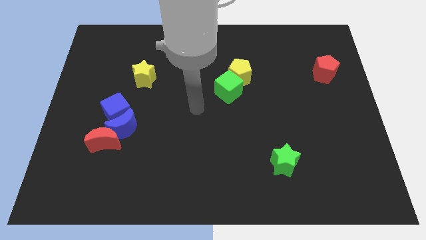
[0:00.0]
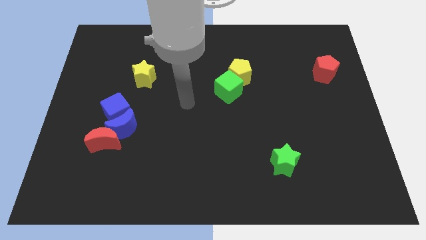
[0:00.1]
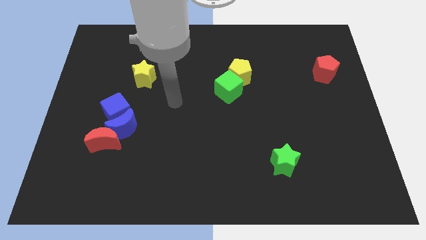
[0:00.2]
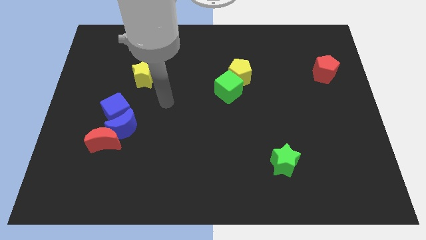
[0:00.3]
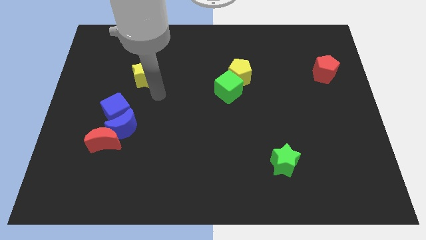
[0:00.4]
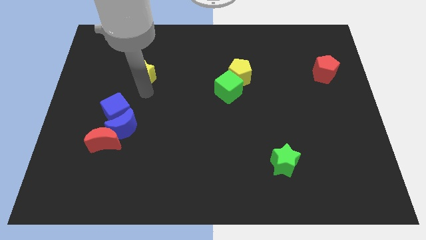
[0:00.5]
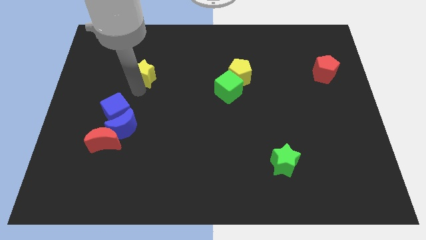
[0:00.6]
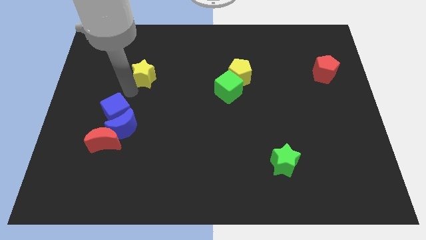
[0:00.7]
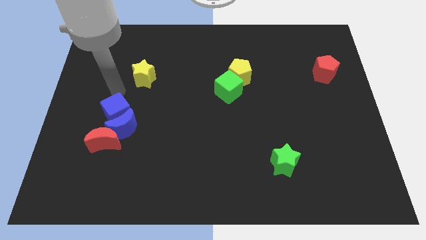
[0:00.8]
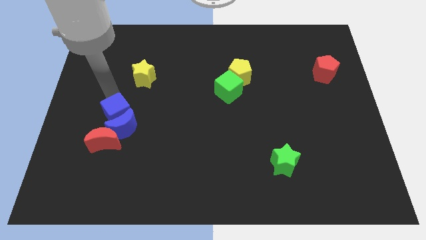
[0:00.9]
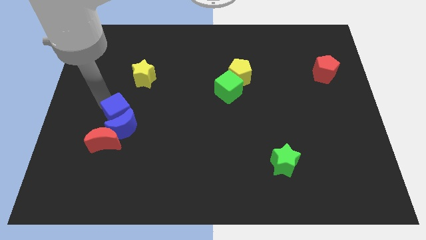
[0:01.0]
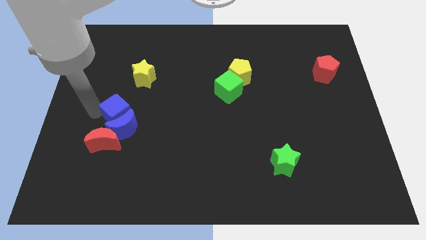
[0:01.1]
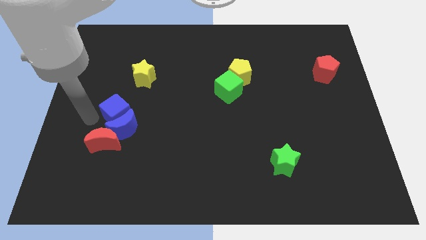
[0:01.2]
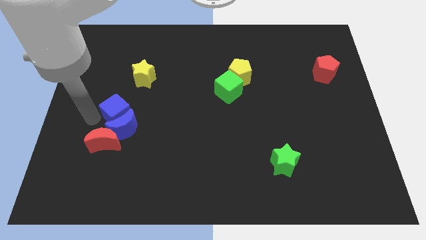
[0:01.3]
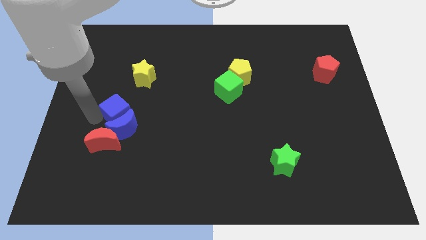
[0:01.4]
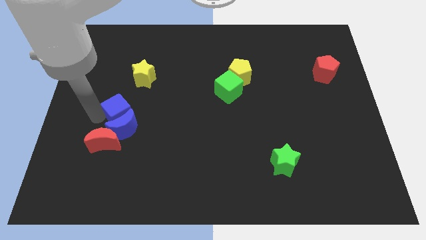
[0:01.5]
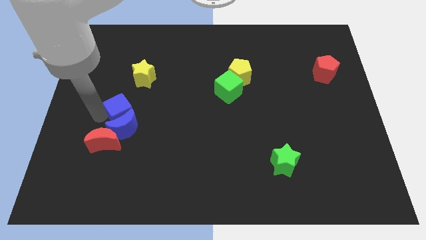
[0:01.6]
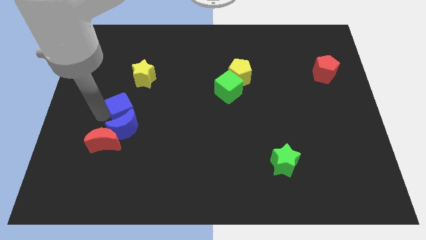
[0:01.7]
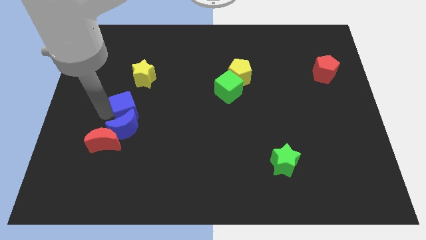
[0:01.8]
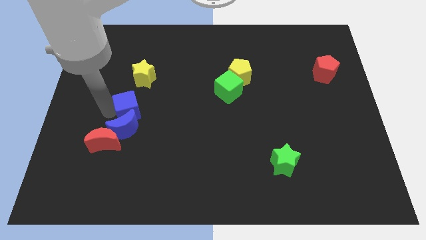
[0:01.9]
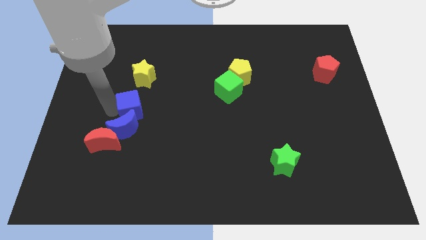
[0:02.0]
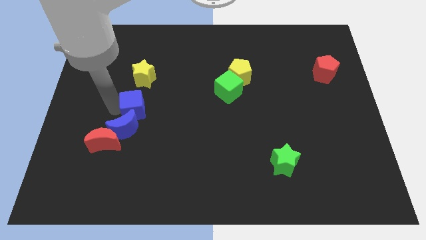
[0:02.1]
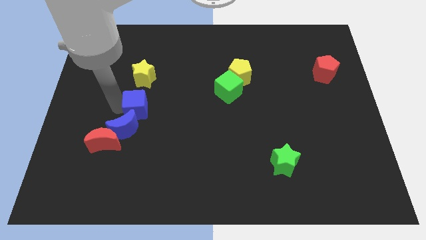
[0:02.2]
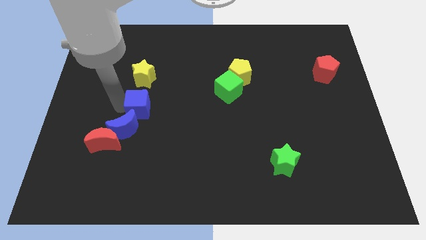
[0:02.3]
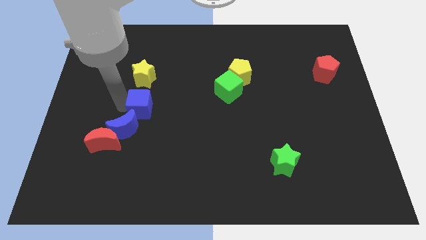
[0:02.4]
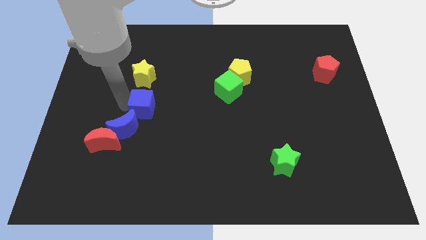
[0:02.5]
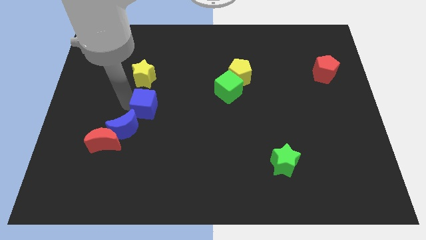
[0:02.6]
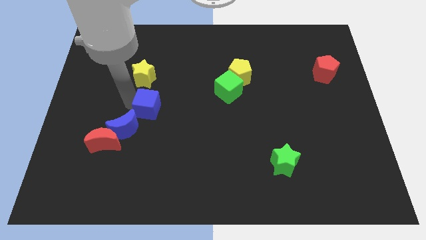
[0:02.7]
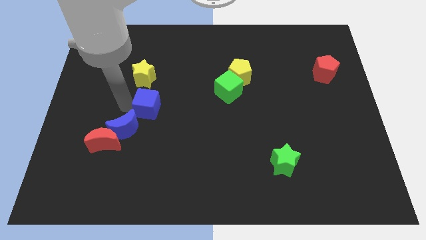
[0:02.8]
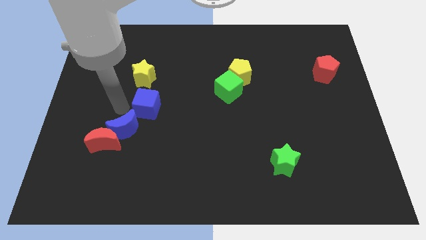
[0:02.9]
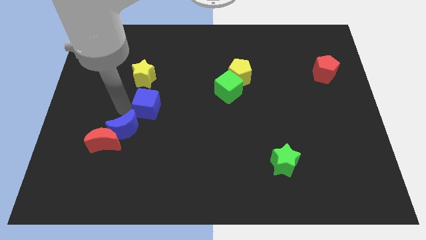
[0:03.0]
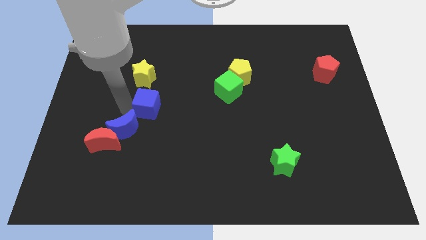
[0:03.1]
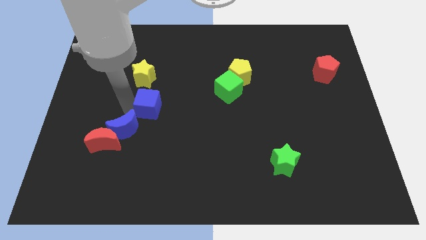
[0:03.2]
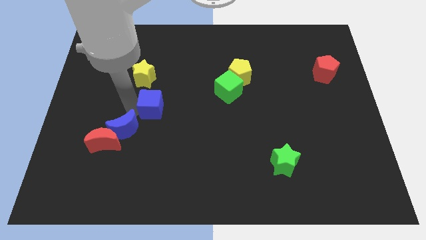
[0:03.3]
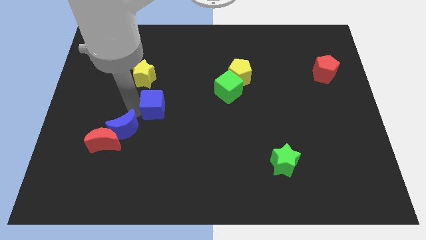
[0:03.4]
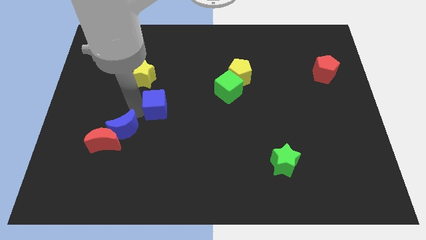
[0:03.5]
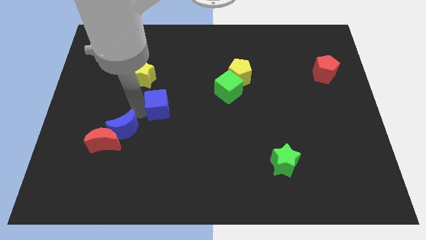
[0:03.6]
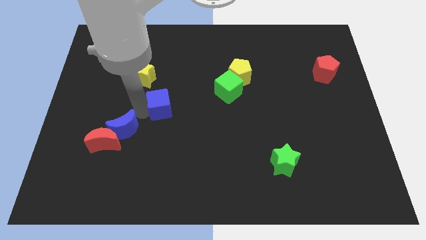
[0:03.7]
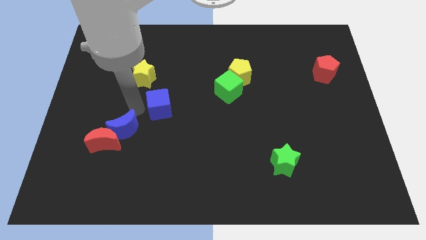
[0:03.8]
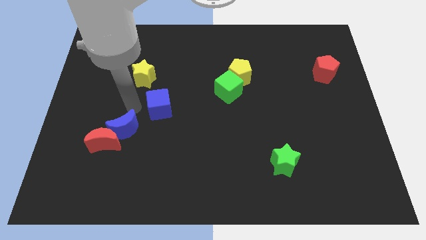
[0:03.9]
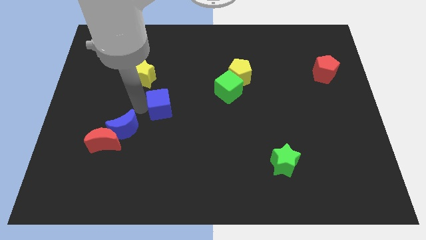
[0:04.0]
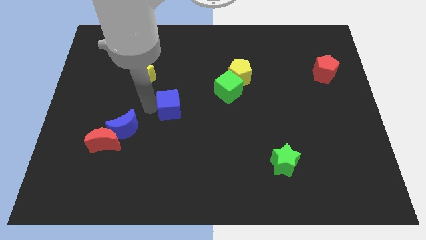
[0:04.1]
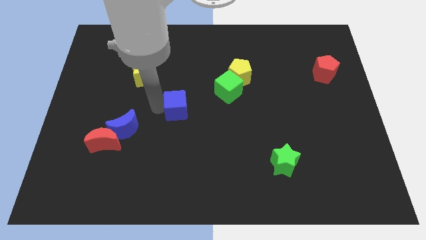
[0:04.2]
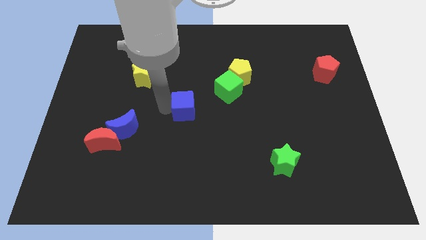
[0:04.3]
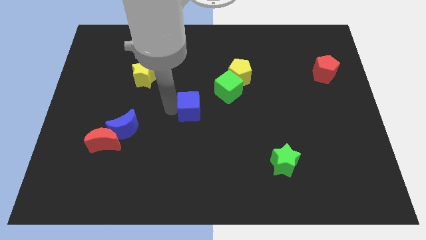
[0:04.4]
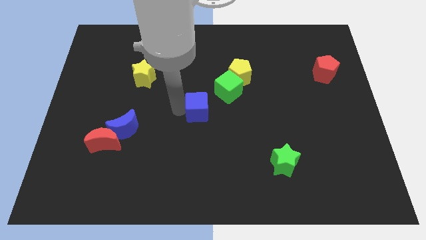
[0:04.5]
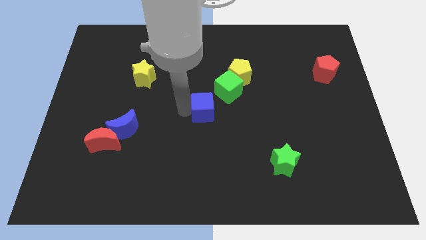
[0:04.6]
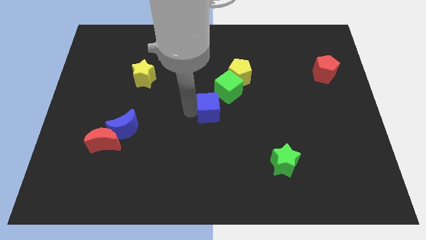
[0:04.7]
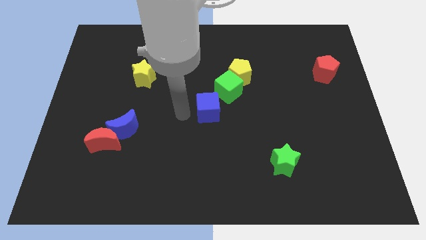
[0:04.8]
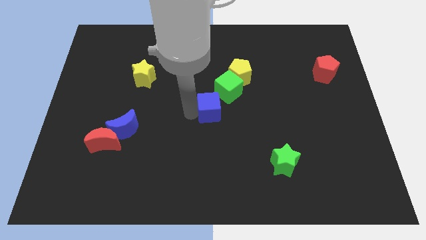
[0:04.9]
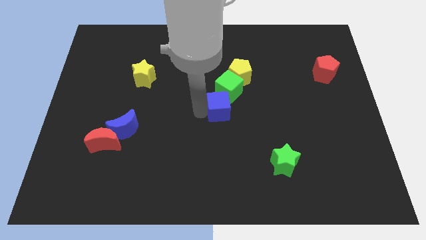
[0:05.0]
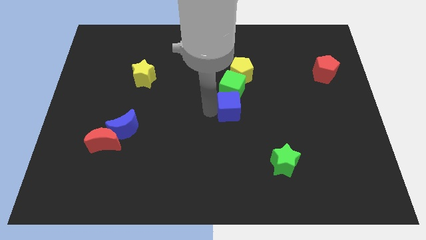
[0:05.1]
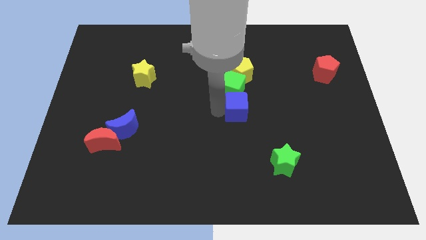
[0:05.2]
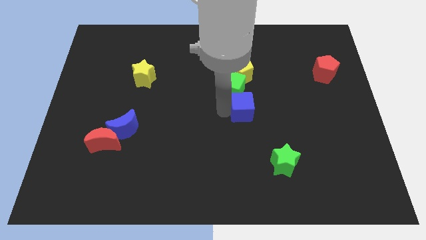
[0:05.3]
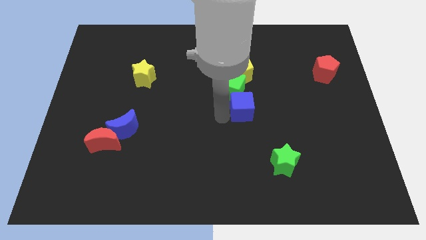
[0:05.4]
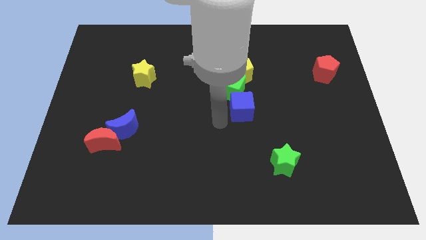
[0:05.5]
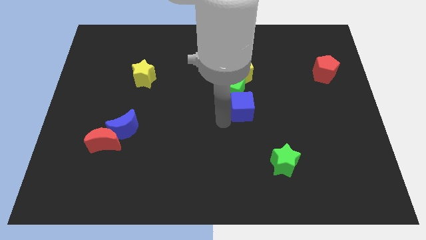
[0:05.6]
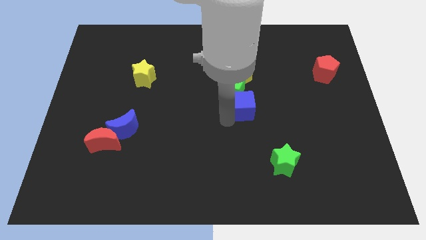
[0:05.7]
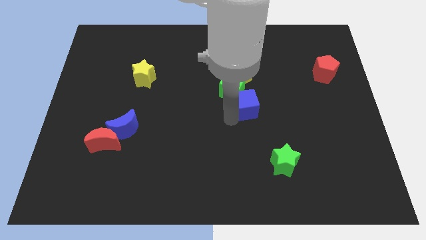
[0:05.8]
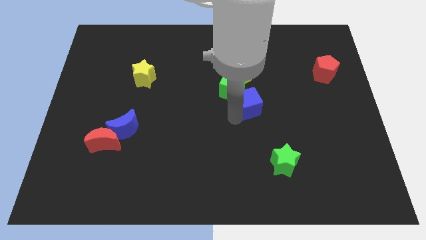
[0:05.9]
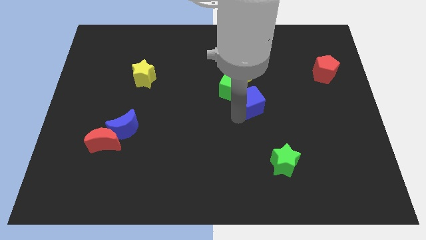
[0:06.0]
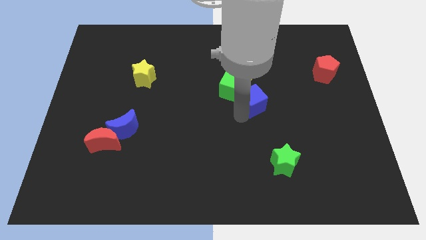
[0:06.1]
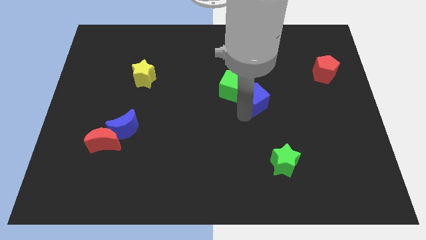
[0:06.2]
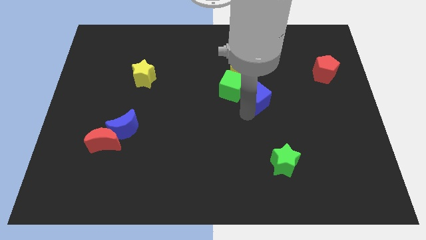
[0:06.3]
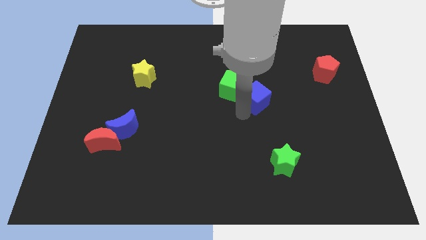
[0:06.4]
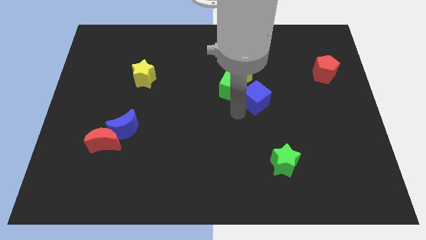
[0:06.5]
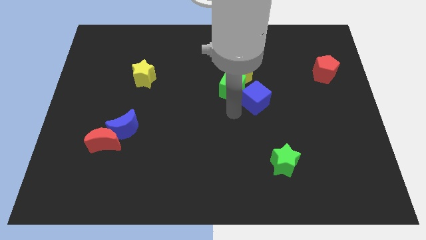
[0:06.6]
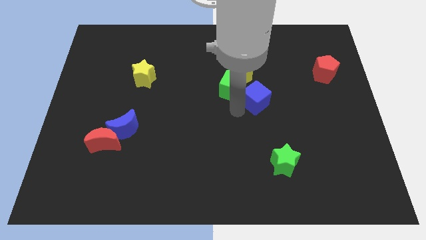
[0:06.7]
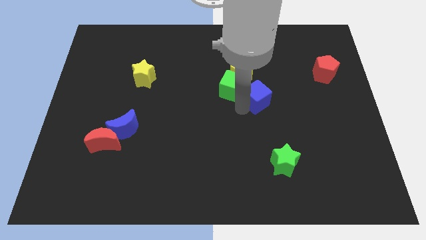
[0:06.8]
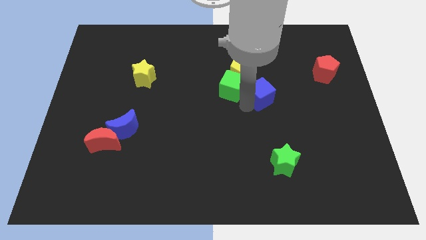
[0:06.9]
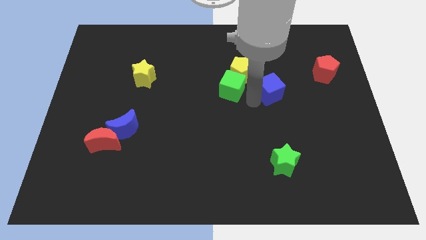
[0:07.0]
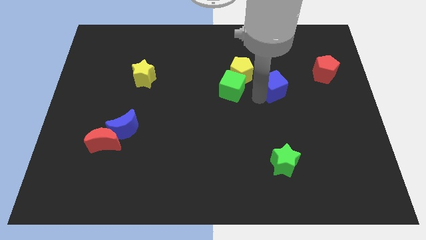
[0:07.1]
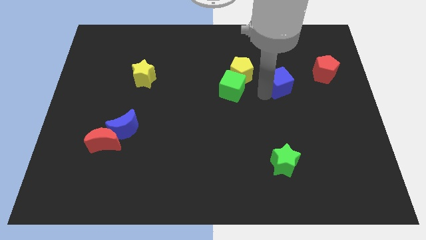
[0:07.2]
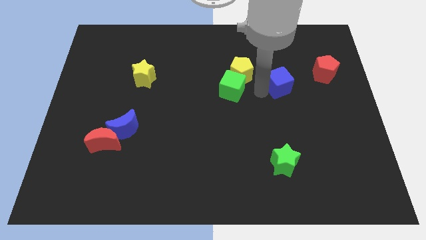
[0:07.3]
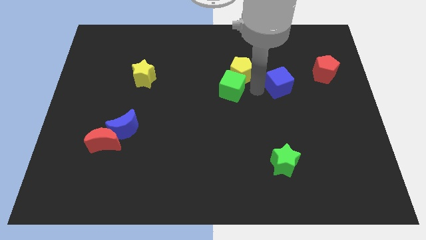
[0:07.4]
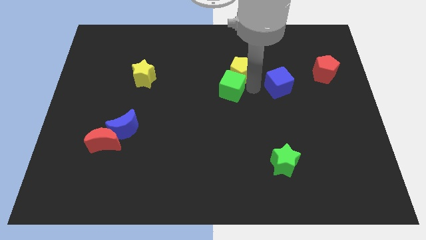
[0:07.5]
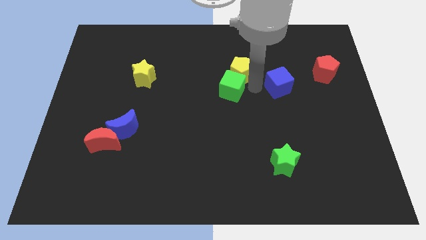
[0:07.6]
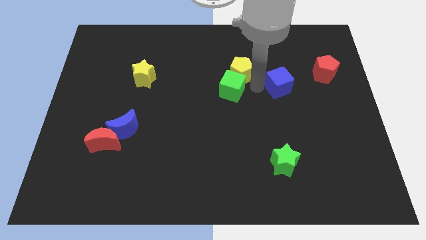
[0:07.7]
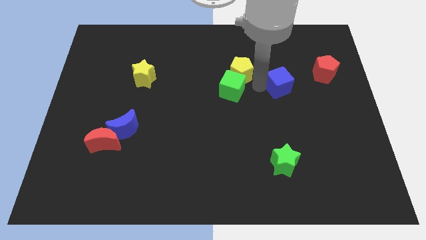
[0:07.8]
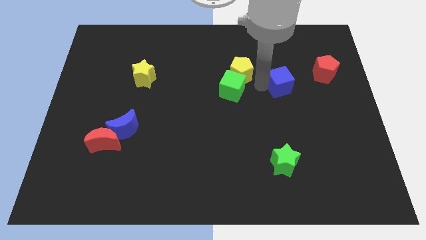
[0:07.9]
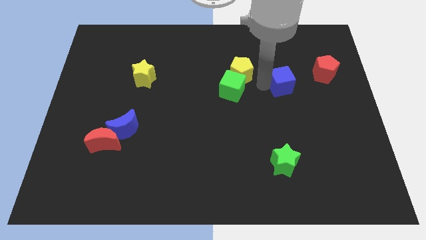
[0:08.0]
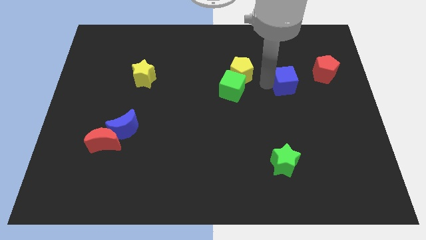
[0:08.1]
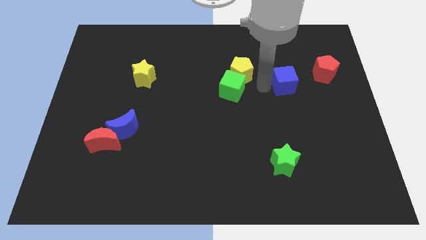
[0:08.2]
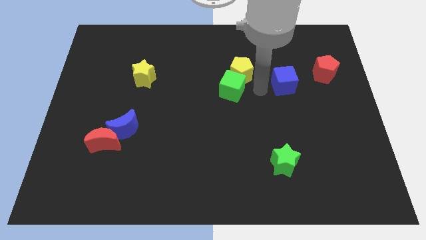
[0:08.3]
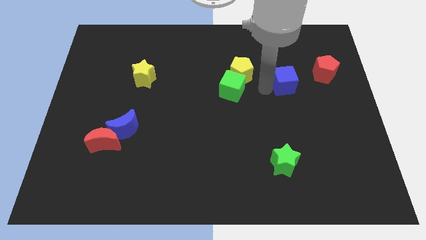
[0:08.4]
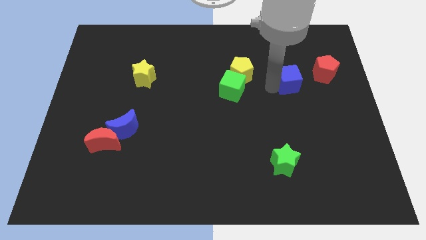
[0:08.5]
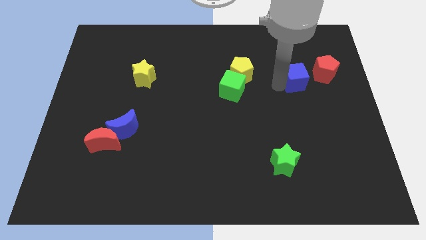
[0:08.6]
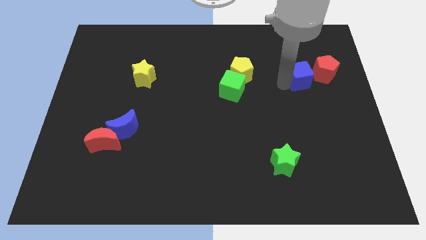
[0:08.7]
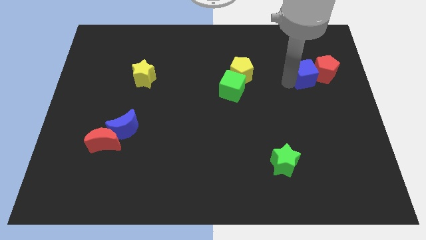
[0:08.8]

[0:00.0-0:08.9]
move the blue cube towards the red pentagon
